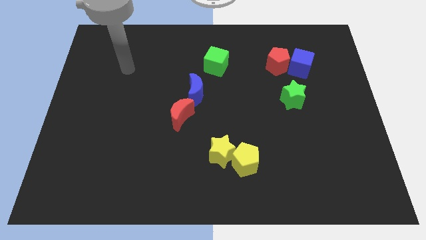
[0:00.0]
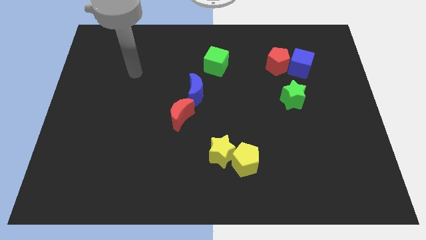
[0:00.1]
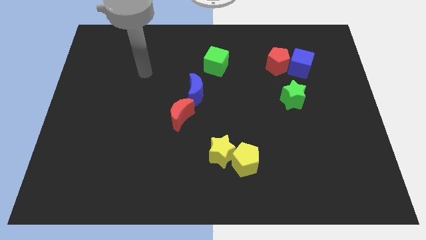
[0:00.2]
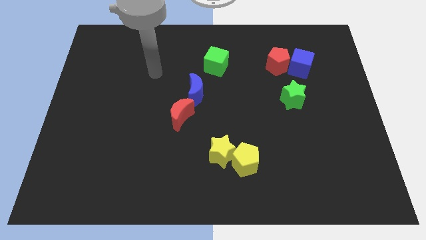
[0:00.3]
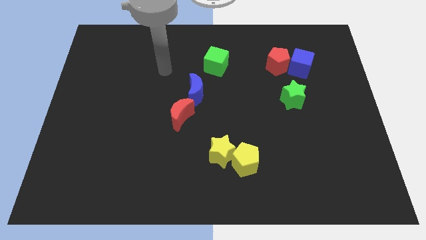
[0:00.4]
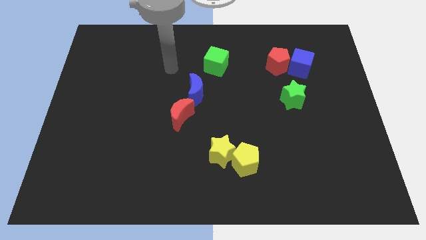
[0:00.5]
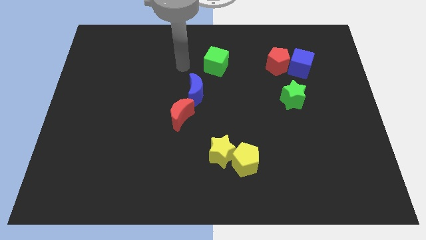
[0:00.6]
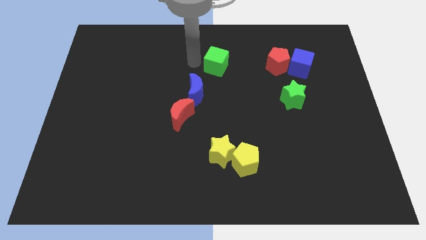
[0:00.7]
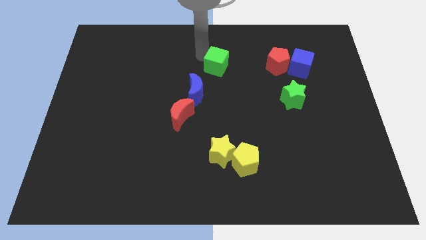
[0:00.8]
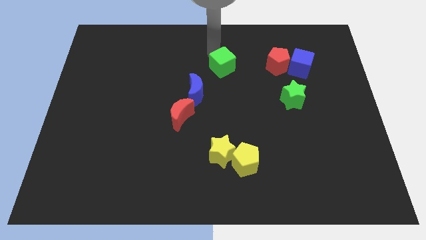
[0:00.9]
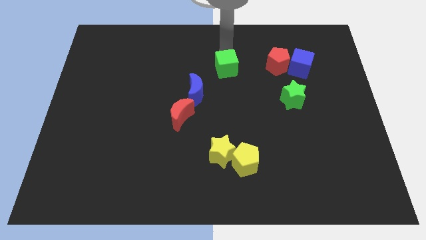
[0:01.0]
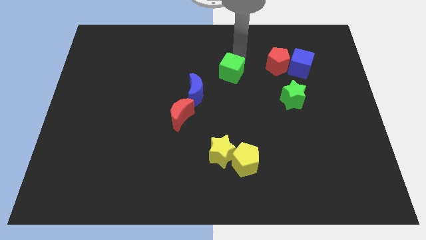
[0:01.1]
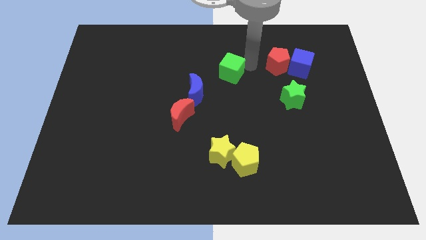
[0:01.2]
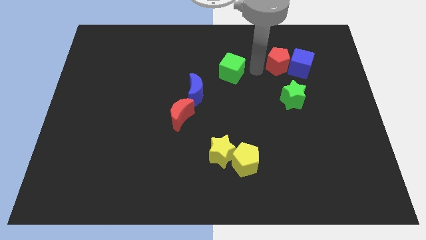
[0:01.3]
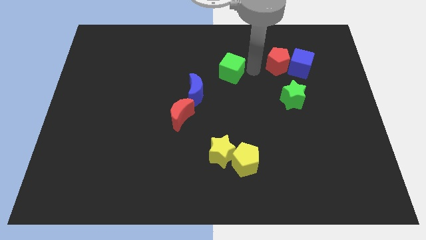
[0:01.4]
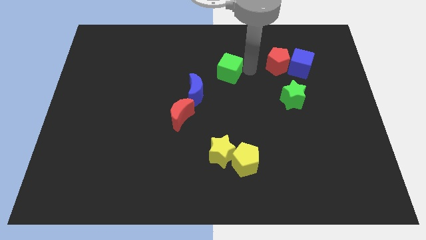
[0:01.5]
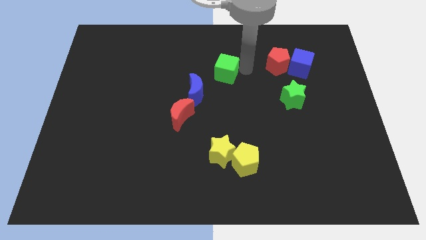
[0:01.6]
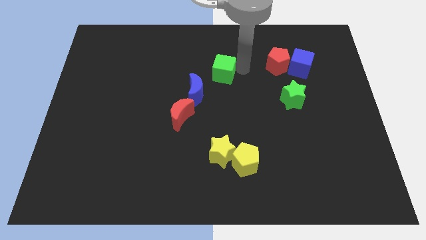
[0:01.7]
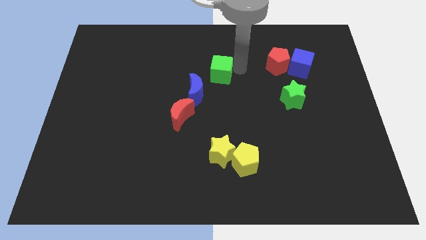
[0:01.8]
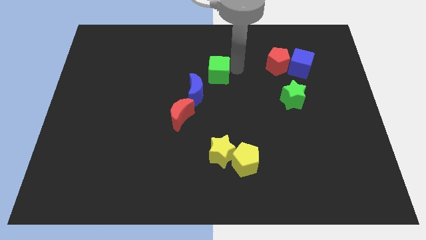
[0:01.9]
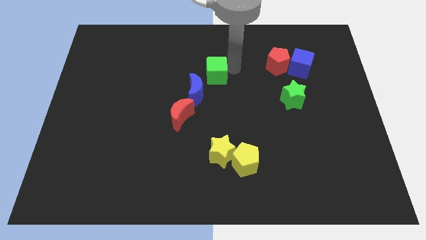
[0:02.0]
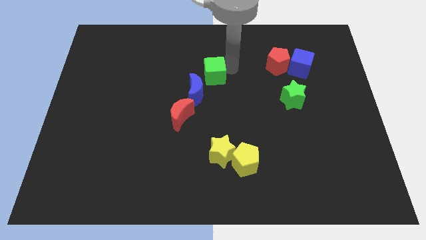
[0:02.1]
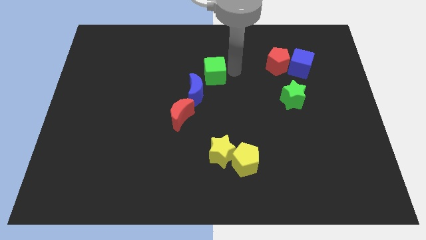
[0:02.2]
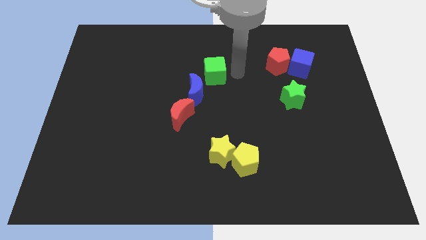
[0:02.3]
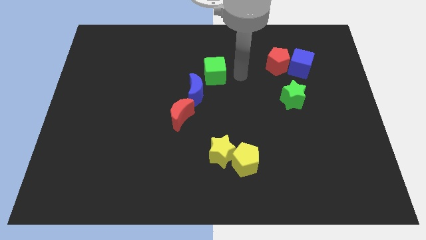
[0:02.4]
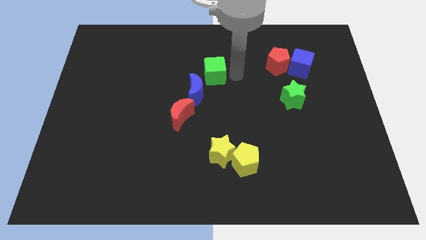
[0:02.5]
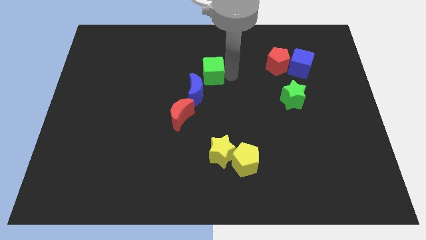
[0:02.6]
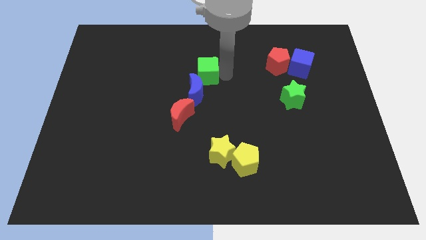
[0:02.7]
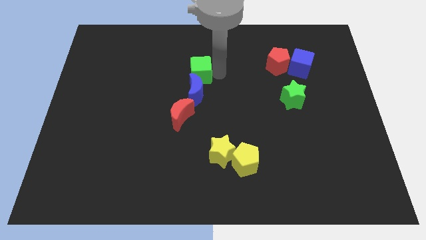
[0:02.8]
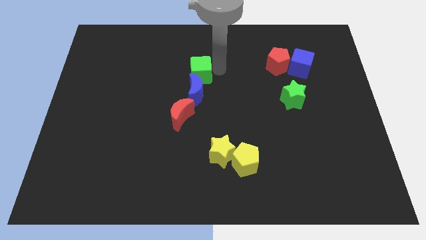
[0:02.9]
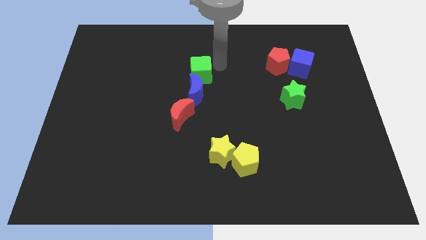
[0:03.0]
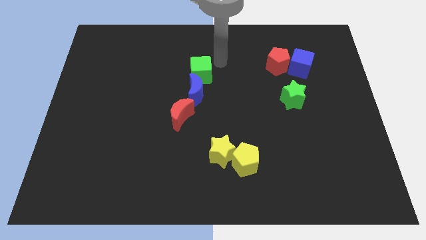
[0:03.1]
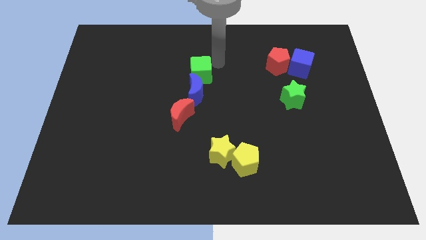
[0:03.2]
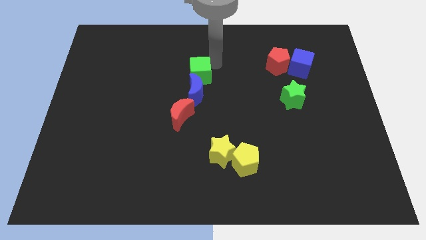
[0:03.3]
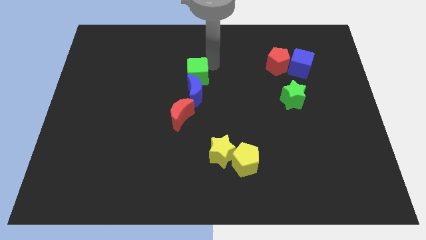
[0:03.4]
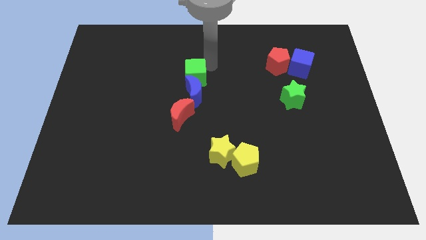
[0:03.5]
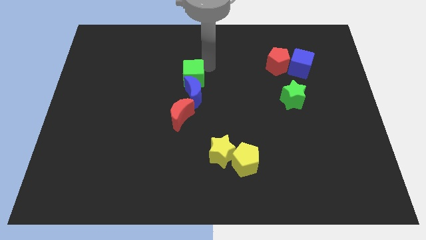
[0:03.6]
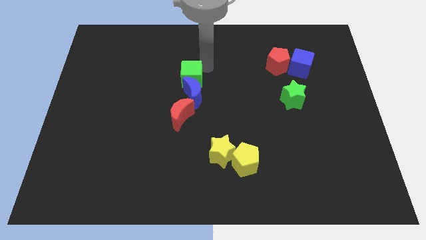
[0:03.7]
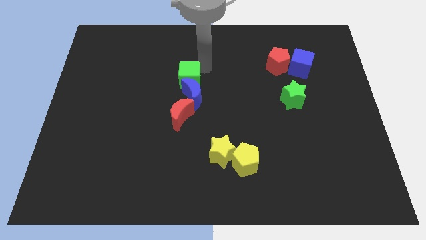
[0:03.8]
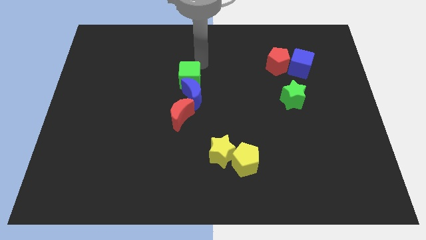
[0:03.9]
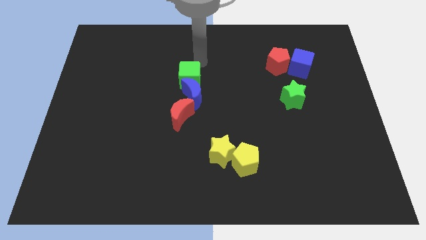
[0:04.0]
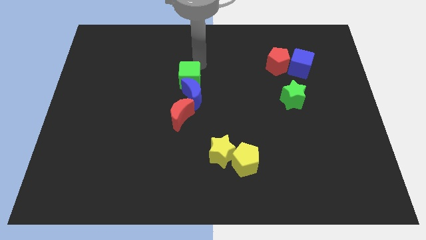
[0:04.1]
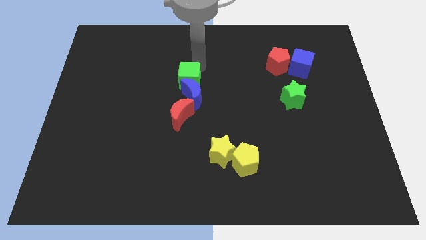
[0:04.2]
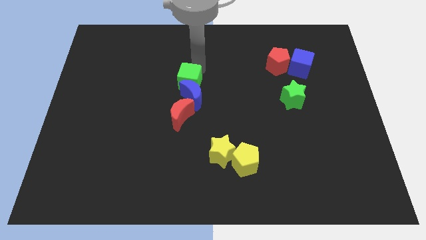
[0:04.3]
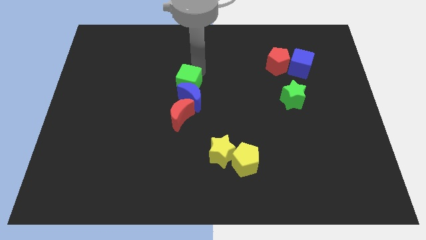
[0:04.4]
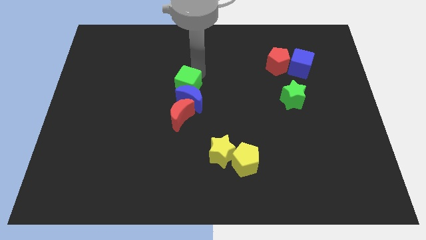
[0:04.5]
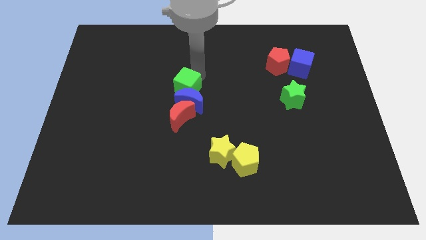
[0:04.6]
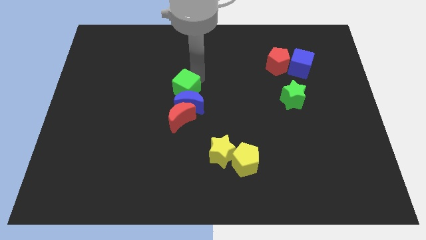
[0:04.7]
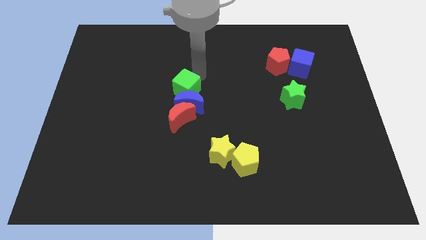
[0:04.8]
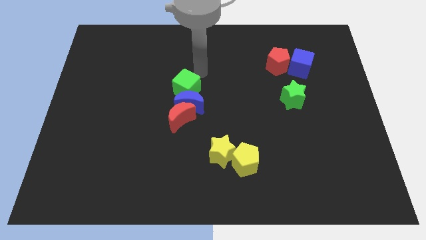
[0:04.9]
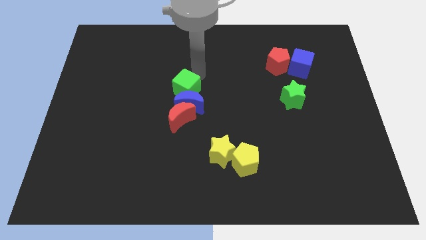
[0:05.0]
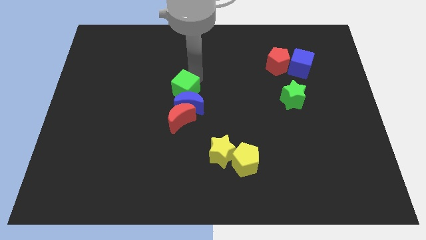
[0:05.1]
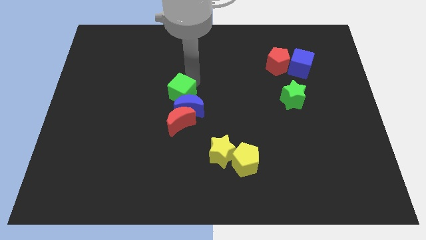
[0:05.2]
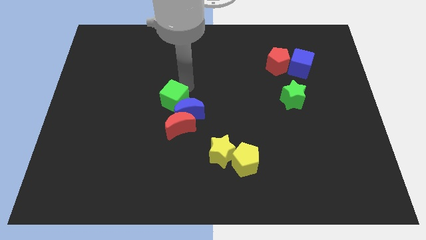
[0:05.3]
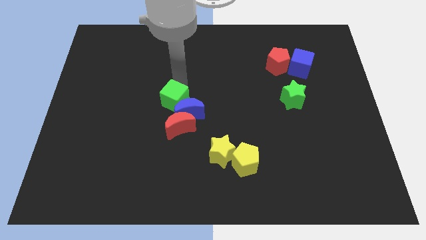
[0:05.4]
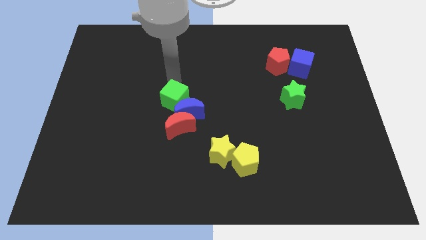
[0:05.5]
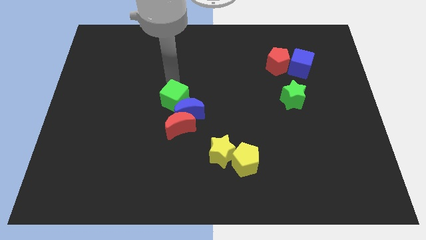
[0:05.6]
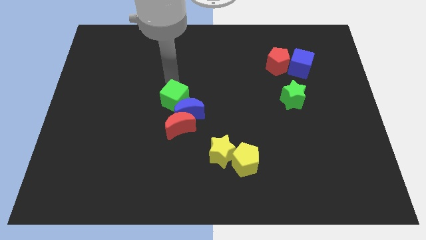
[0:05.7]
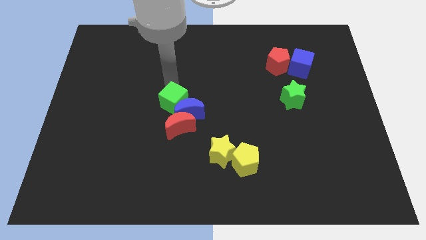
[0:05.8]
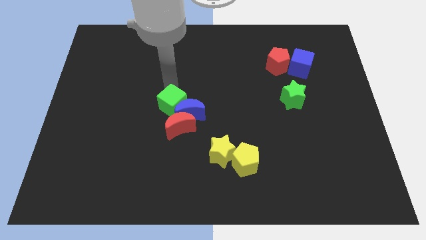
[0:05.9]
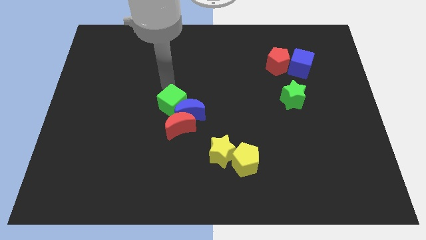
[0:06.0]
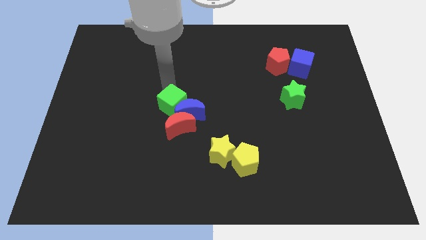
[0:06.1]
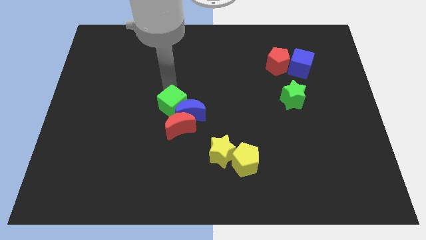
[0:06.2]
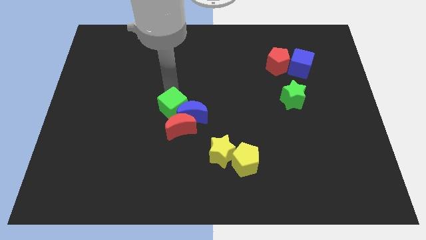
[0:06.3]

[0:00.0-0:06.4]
push the green cube to the red moon

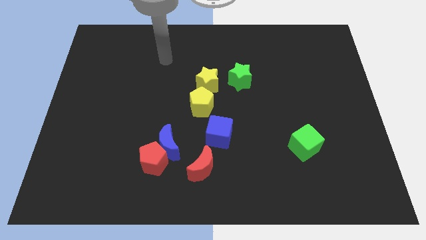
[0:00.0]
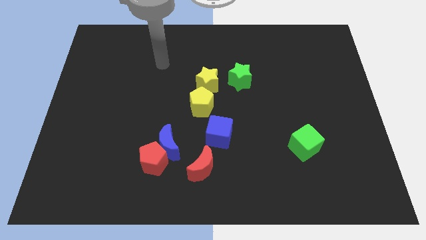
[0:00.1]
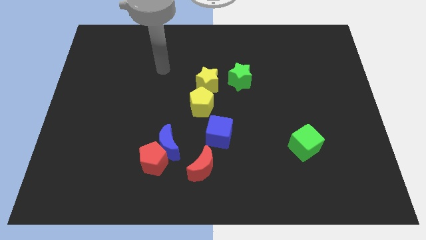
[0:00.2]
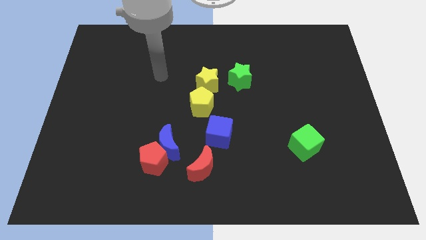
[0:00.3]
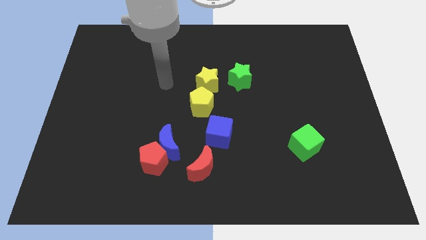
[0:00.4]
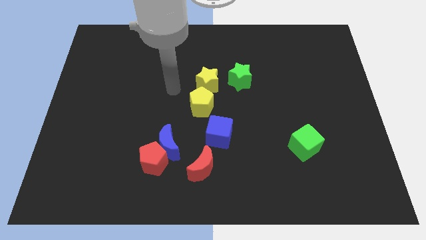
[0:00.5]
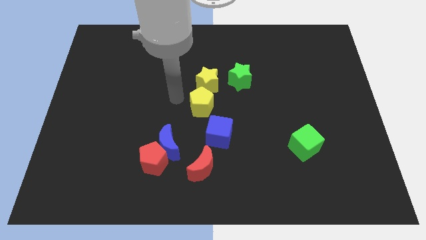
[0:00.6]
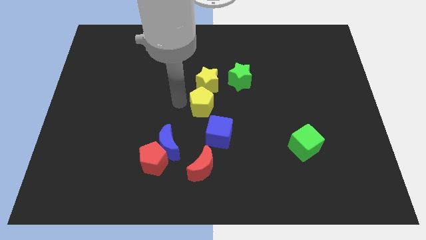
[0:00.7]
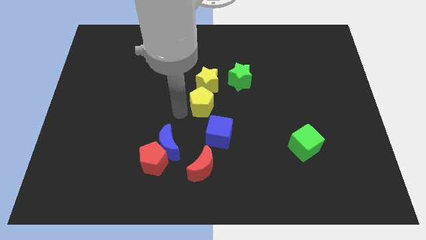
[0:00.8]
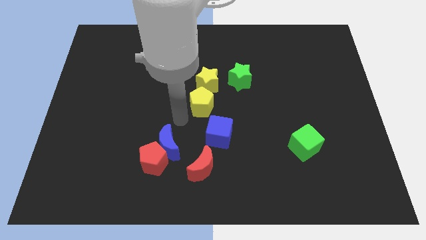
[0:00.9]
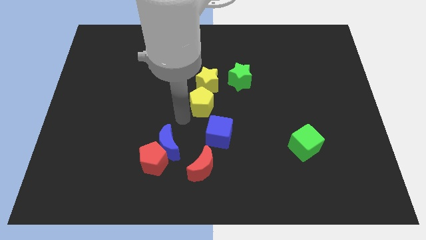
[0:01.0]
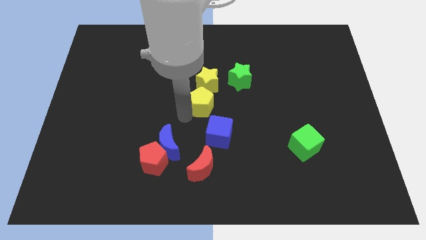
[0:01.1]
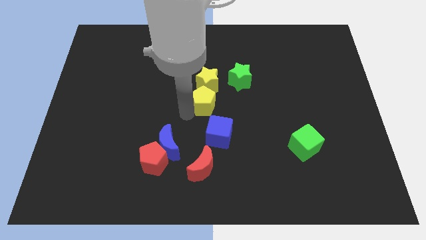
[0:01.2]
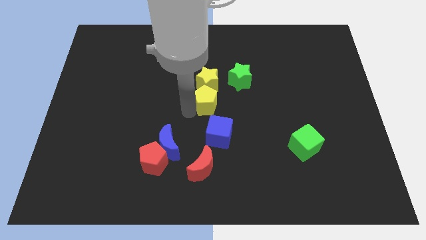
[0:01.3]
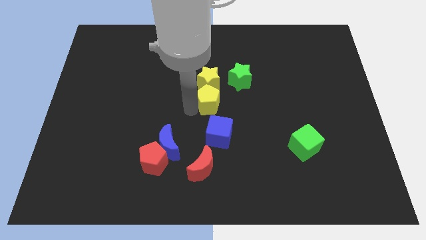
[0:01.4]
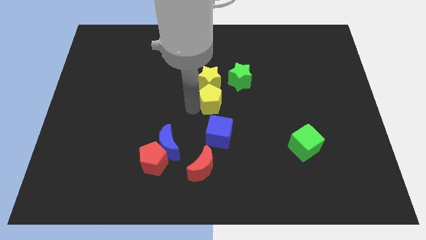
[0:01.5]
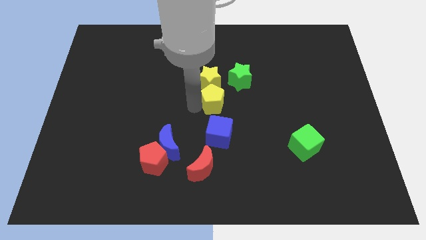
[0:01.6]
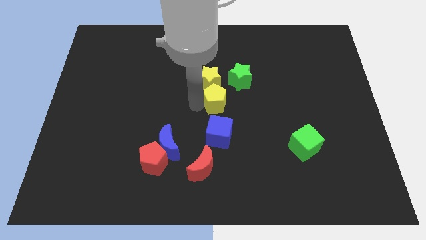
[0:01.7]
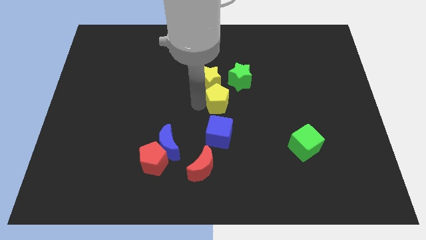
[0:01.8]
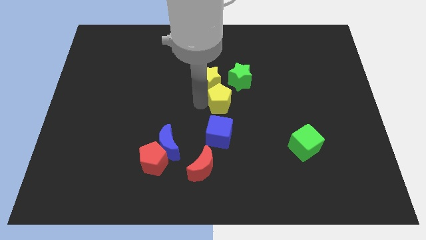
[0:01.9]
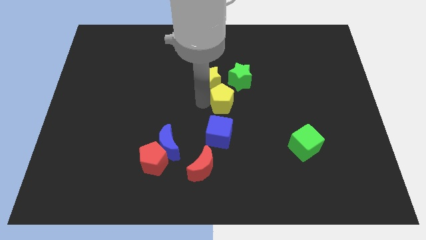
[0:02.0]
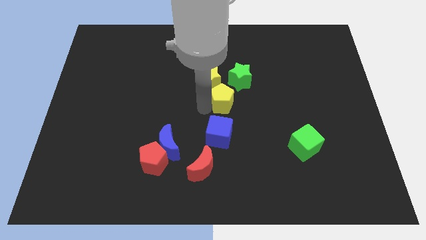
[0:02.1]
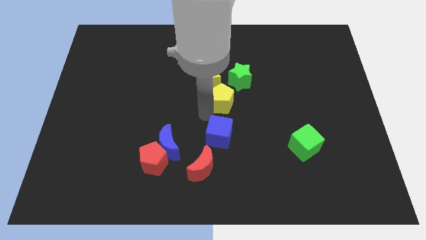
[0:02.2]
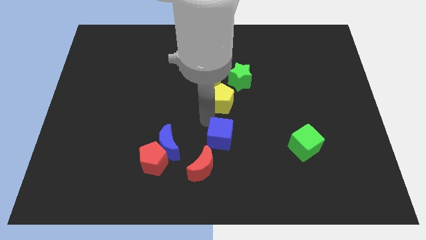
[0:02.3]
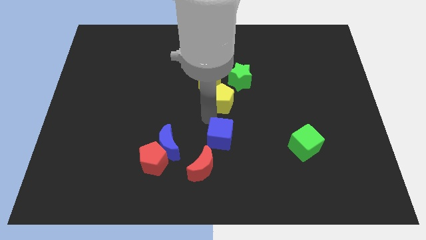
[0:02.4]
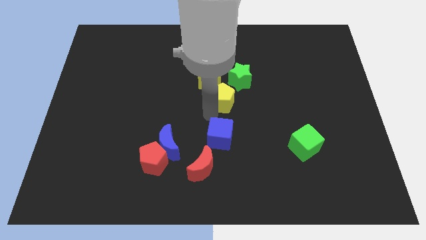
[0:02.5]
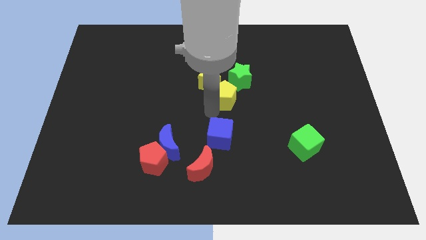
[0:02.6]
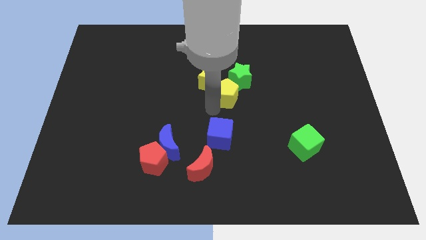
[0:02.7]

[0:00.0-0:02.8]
move the yellow pentagon close to the green star
